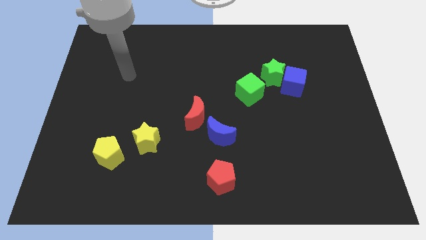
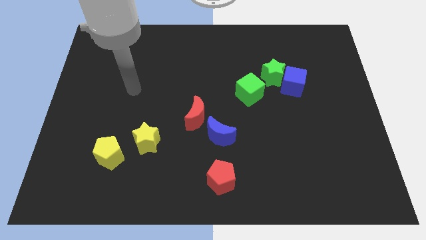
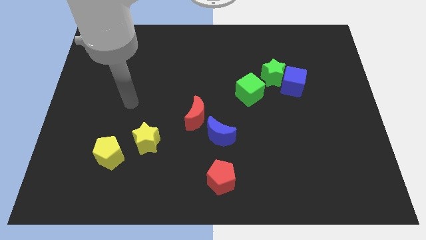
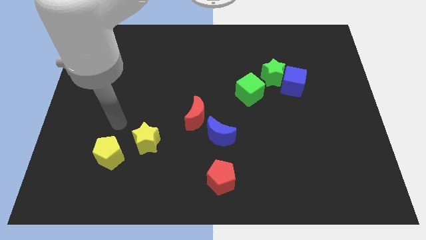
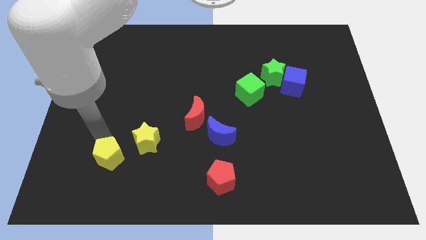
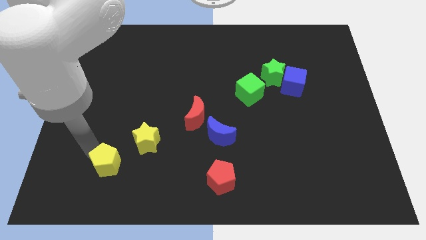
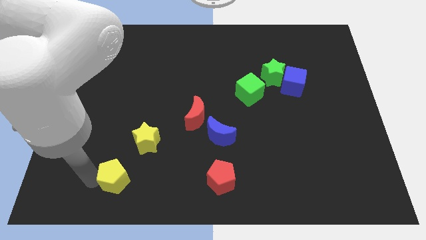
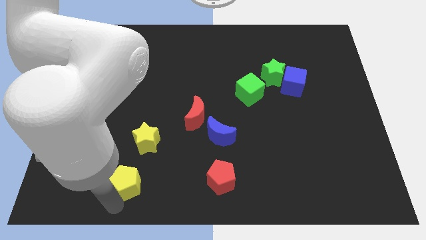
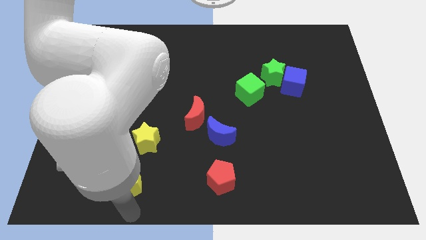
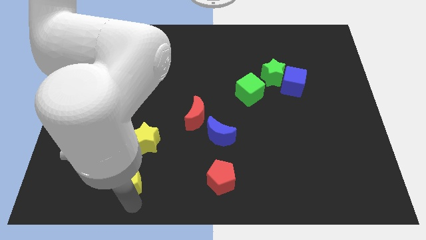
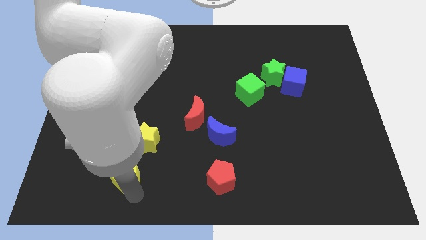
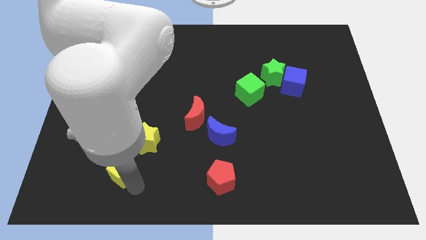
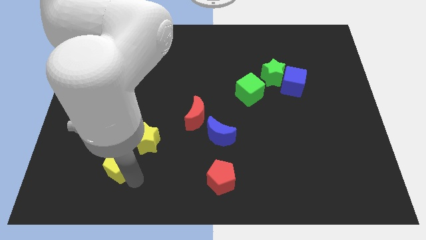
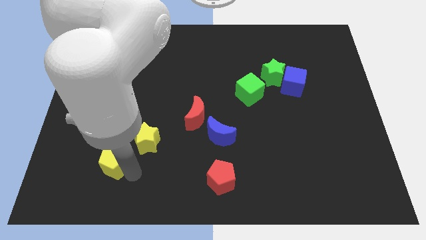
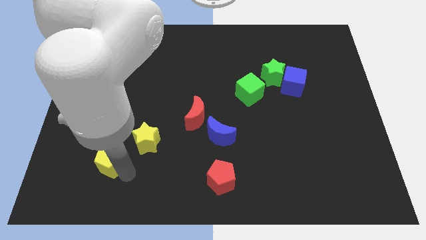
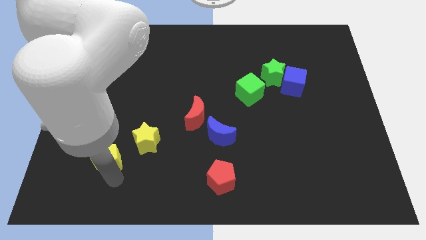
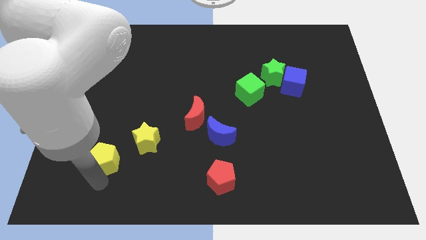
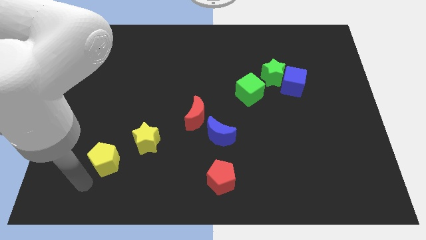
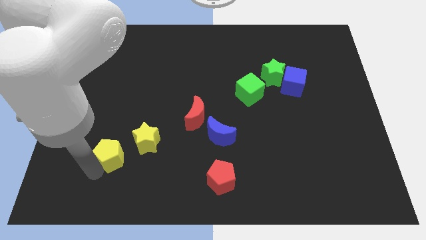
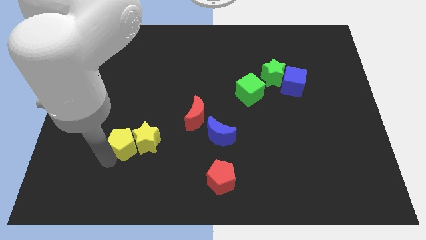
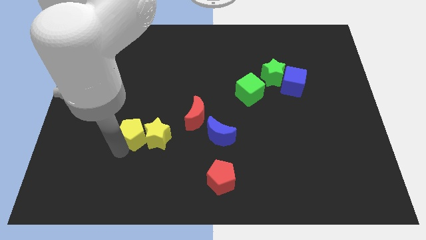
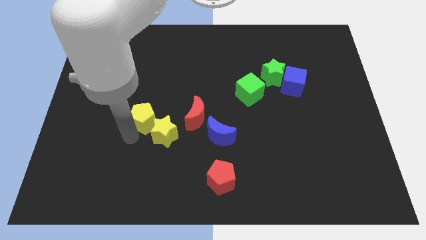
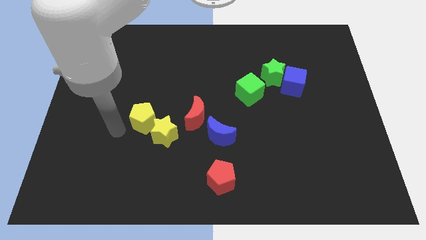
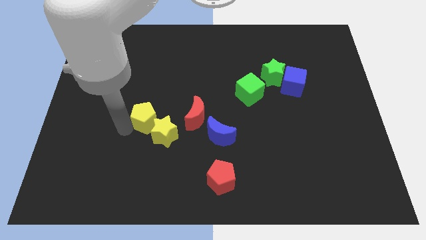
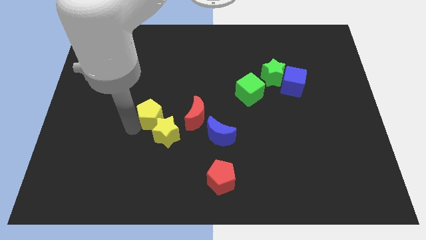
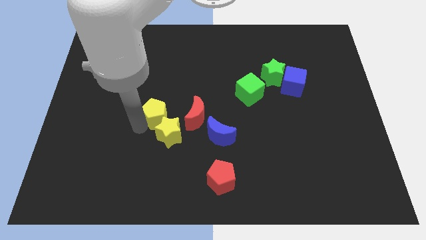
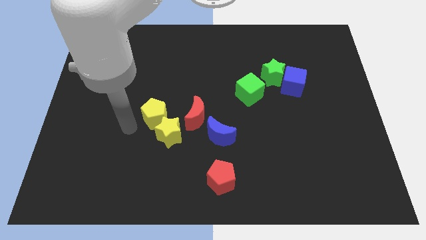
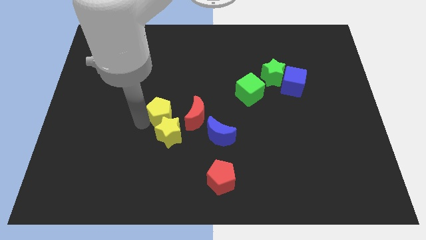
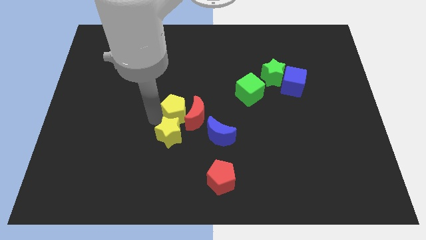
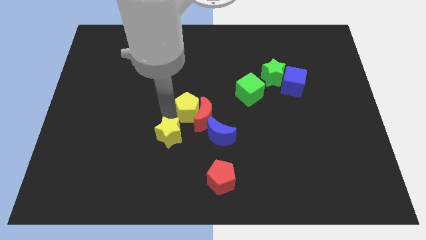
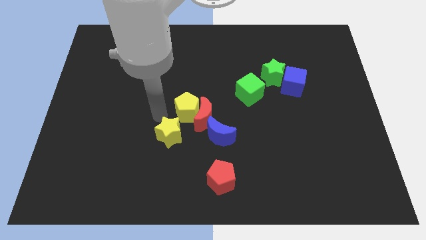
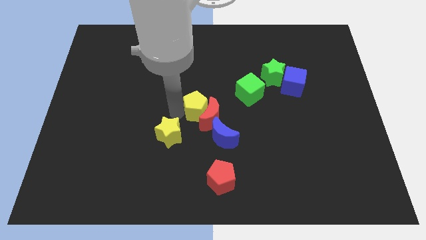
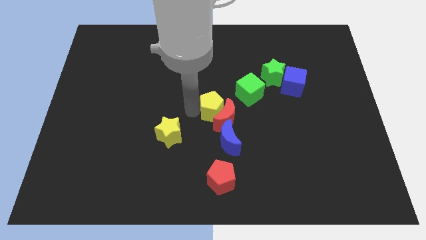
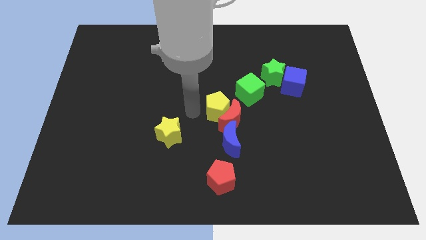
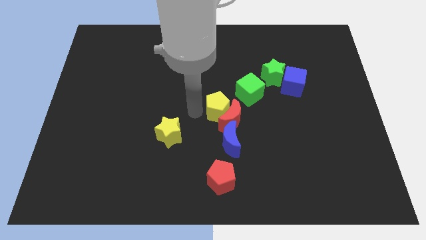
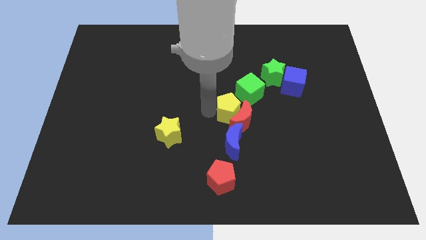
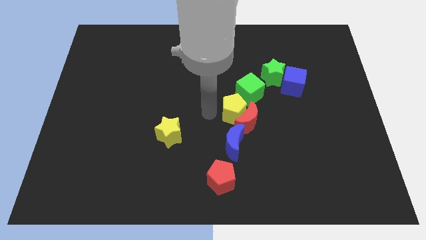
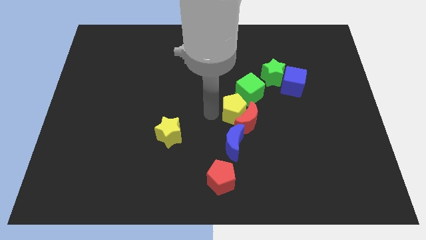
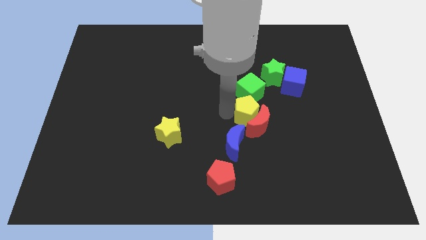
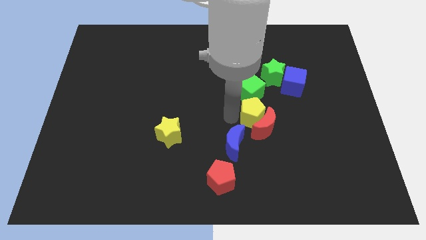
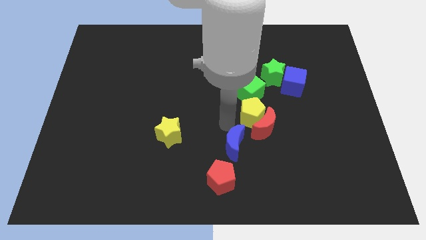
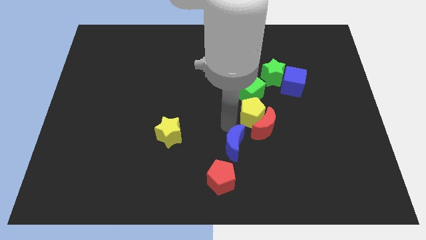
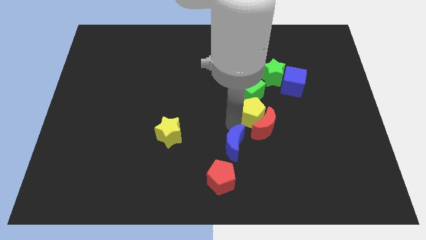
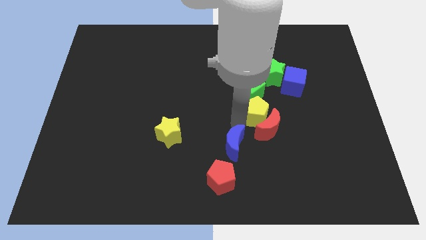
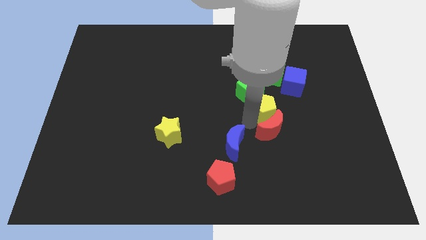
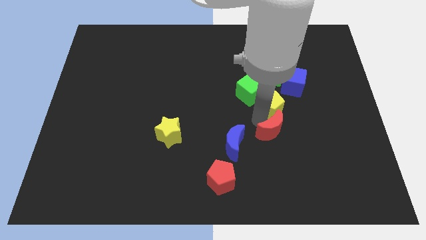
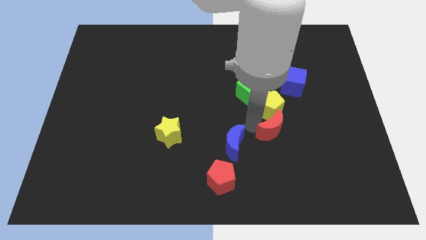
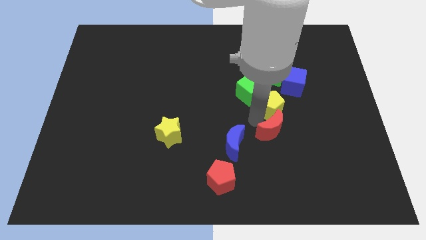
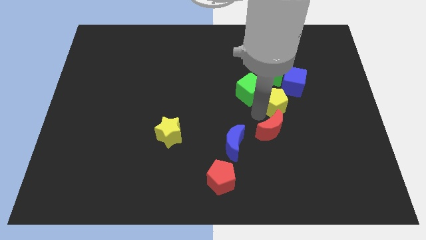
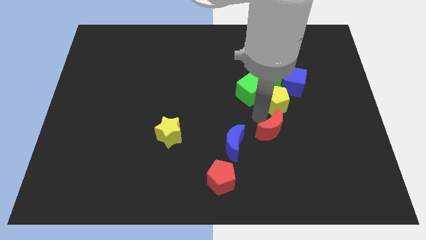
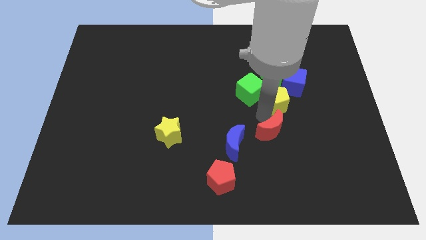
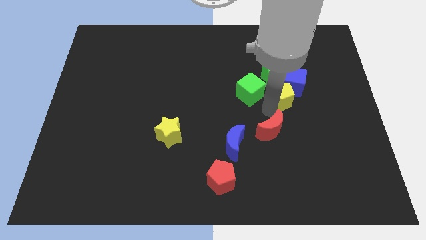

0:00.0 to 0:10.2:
slide the yellow pentagon close to the blue cube

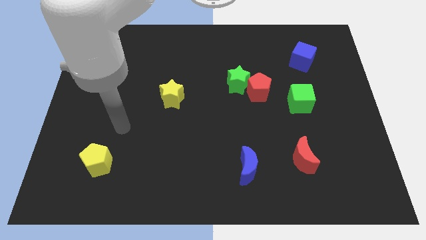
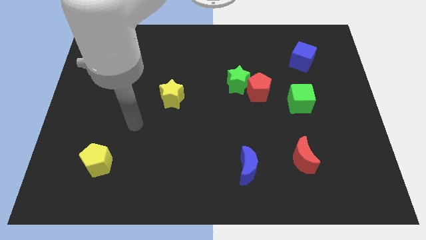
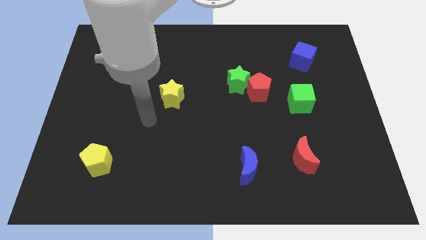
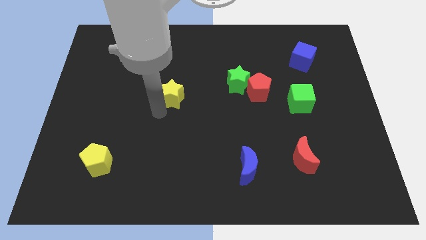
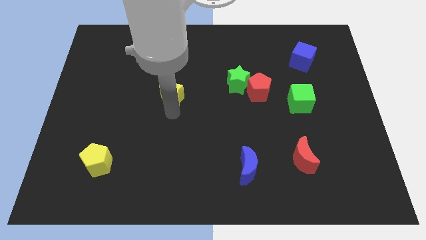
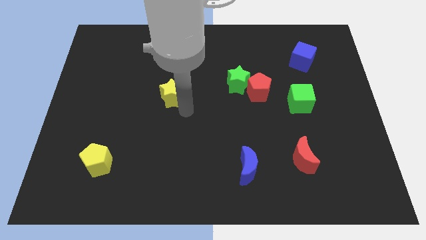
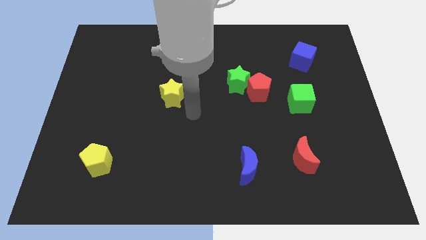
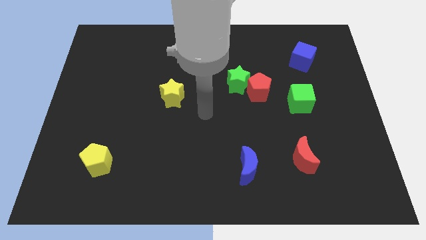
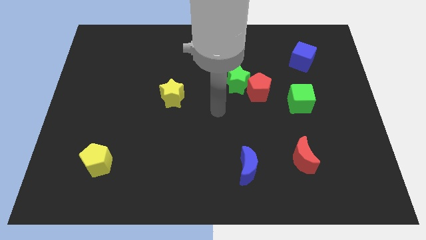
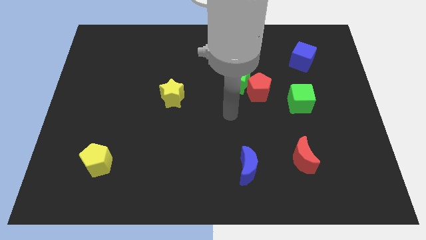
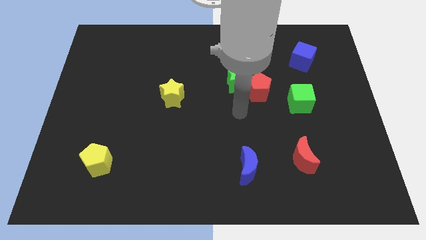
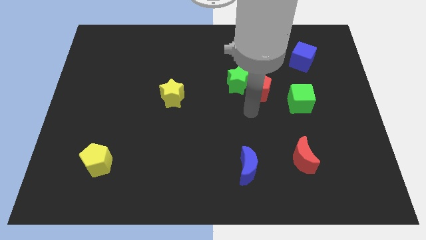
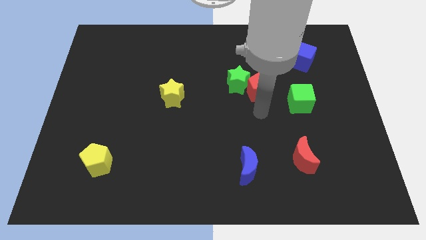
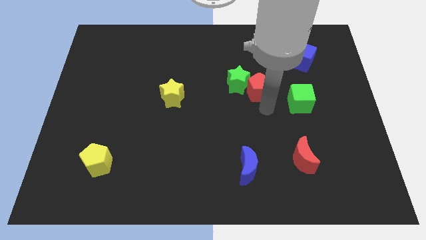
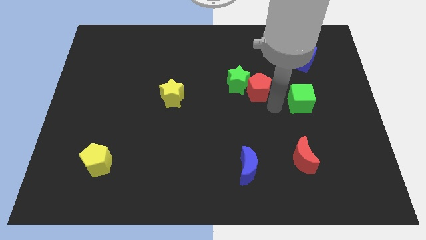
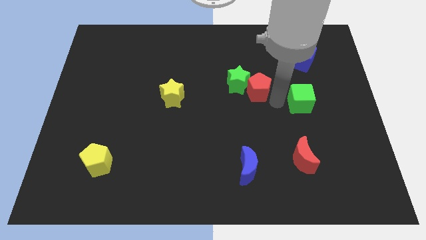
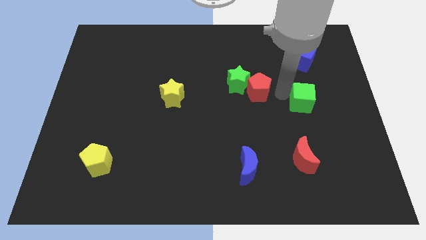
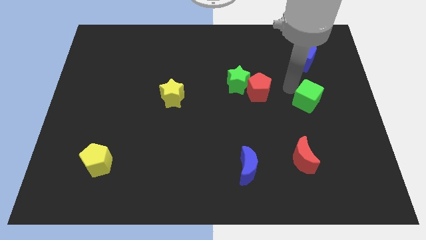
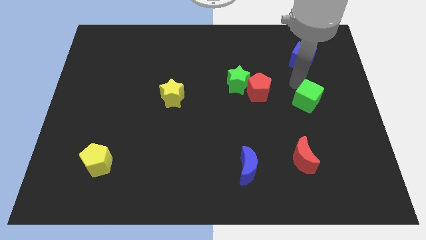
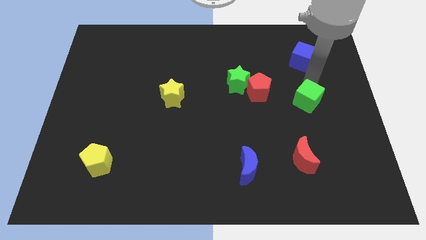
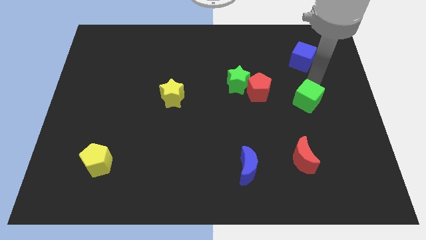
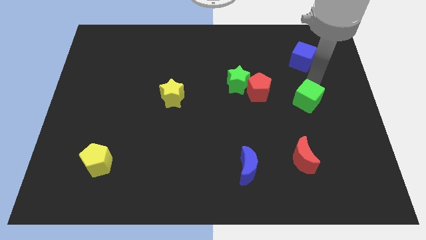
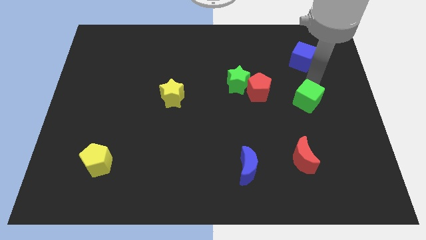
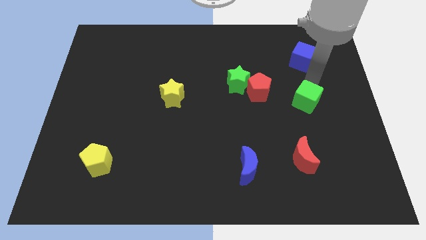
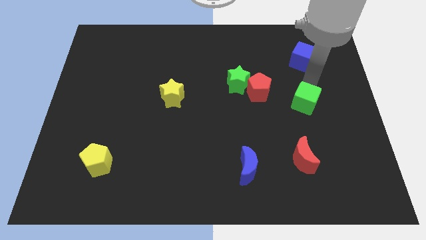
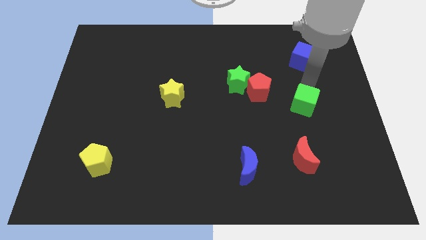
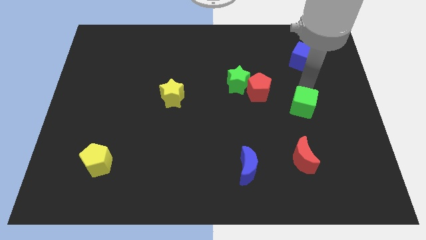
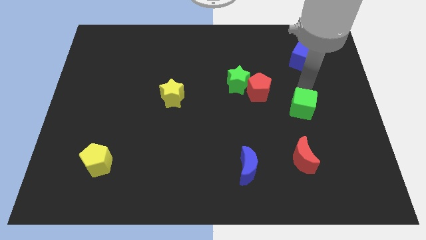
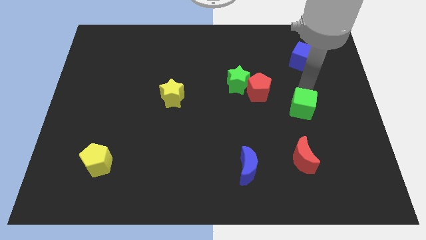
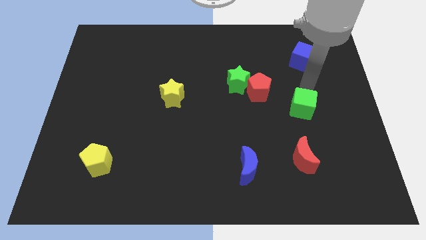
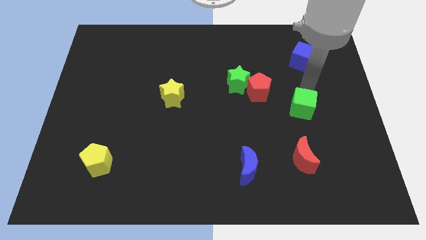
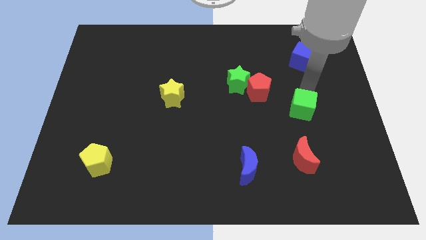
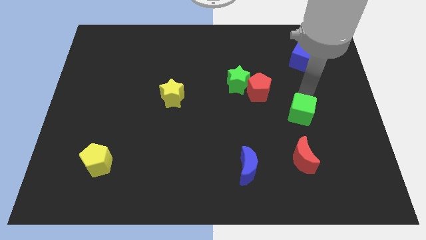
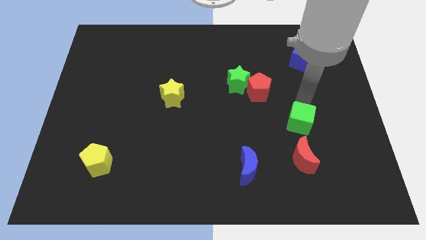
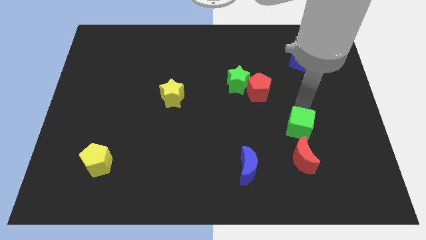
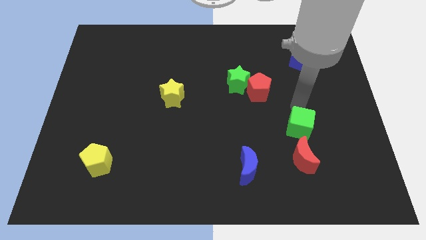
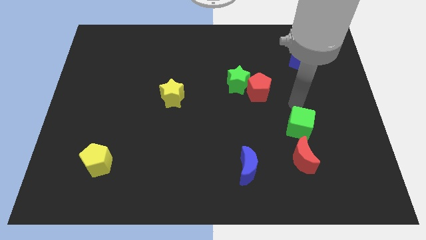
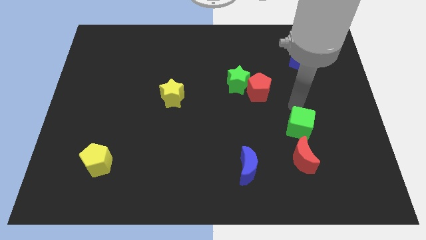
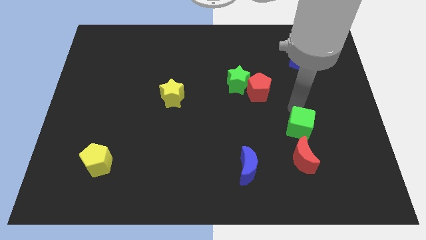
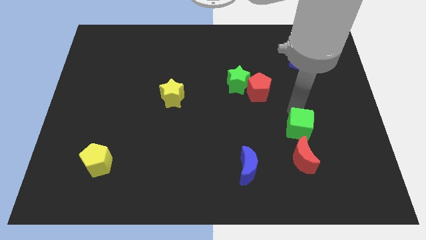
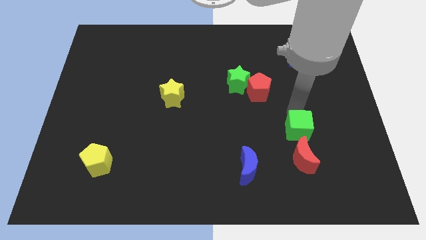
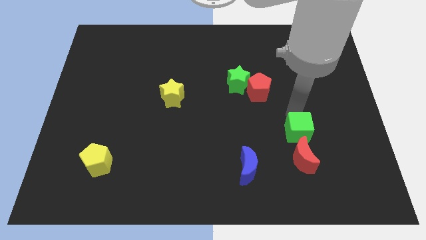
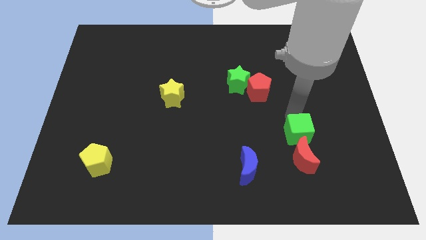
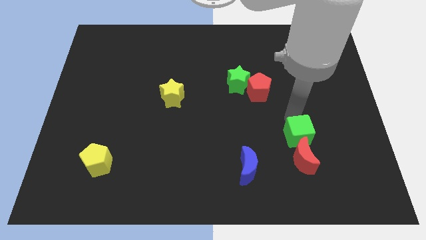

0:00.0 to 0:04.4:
put the green cube towards the red moon
